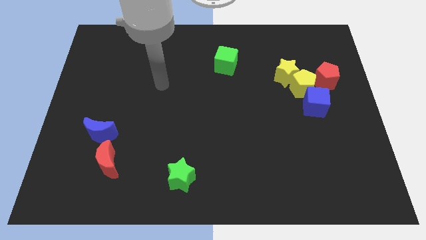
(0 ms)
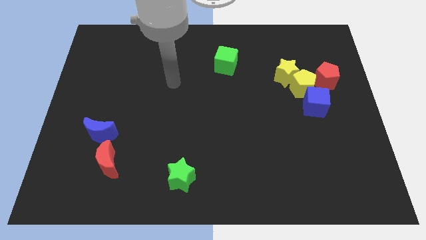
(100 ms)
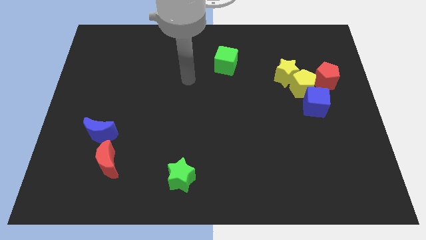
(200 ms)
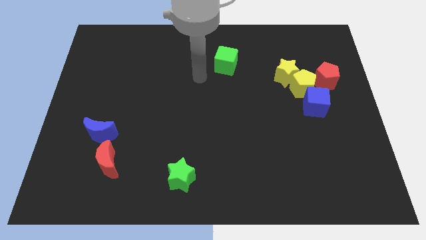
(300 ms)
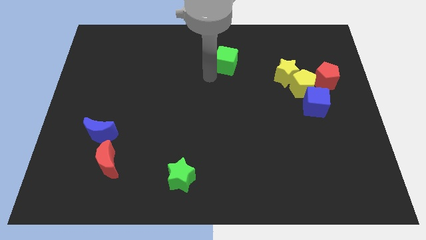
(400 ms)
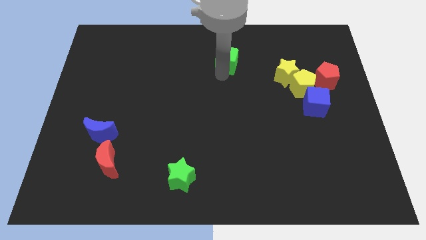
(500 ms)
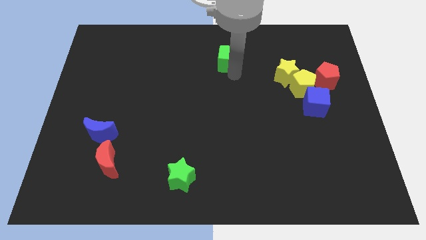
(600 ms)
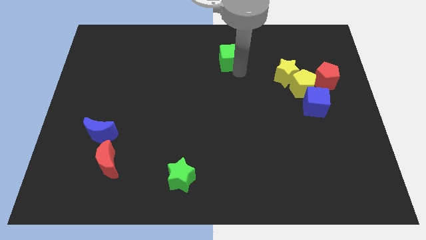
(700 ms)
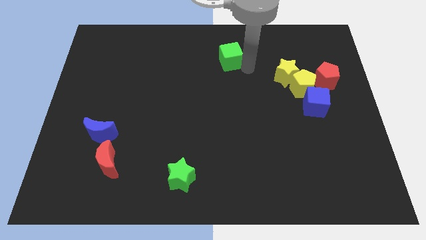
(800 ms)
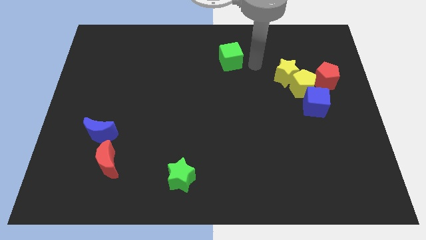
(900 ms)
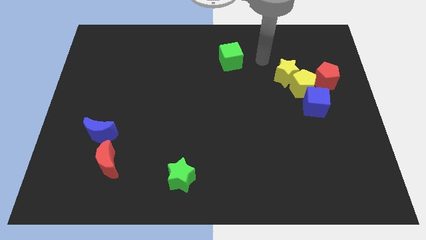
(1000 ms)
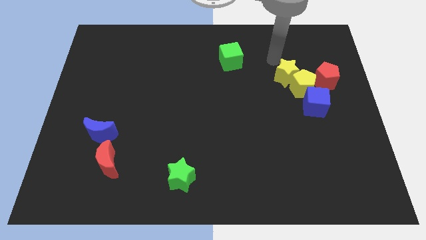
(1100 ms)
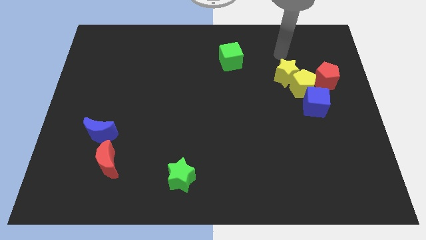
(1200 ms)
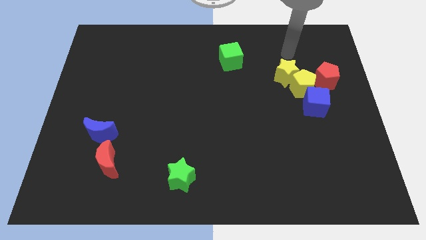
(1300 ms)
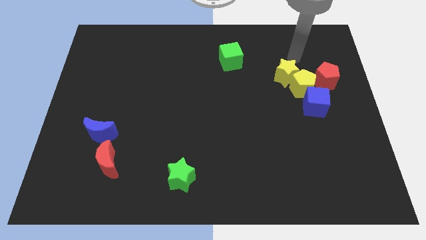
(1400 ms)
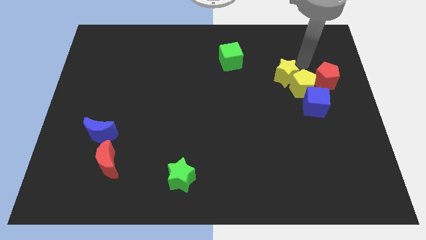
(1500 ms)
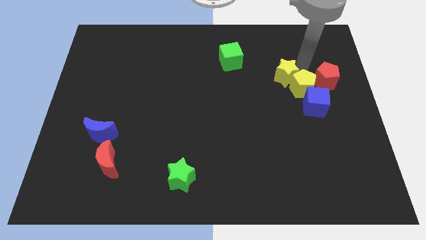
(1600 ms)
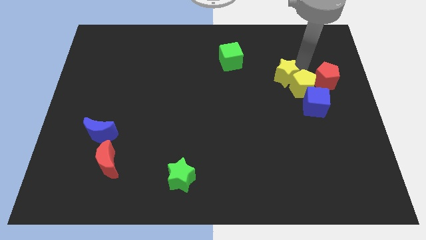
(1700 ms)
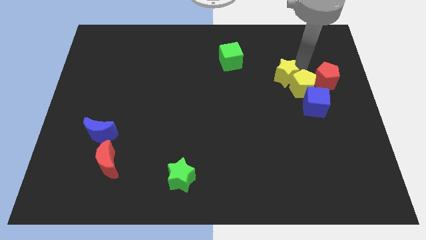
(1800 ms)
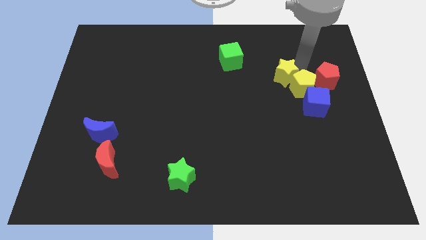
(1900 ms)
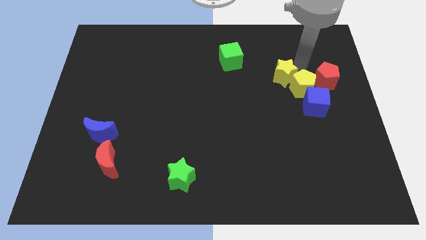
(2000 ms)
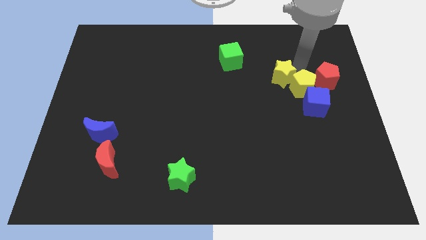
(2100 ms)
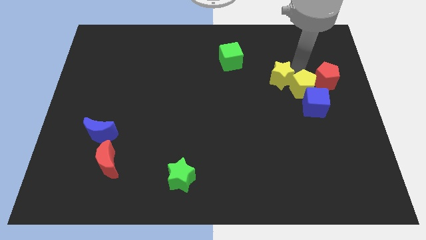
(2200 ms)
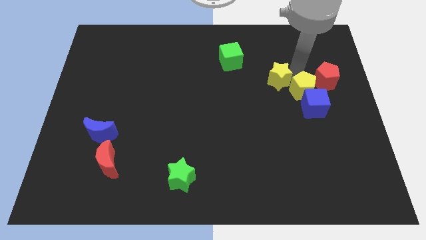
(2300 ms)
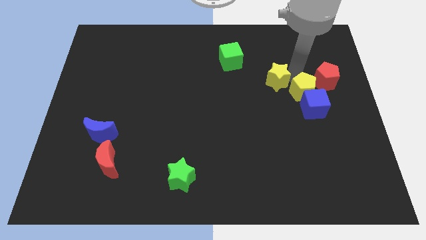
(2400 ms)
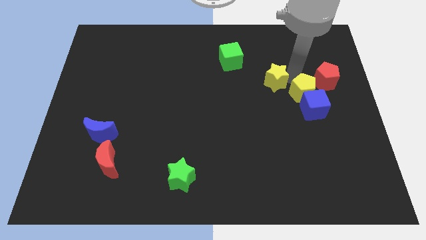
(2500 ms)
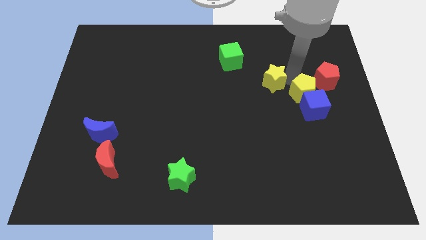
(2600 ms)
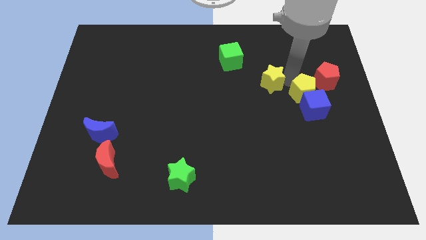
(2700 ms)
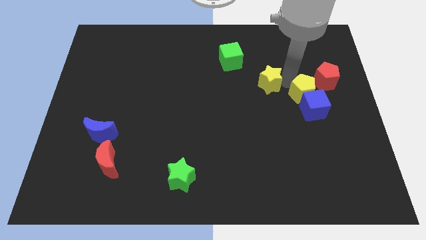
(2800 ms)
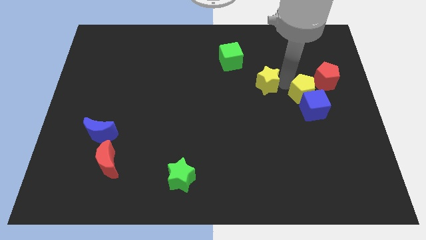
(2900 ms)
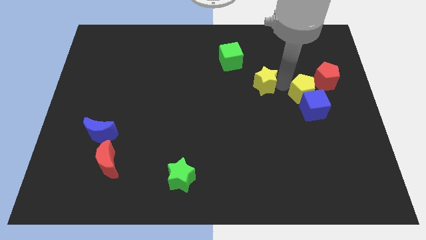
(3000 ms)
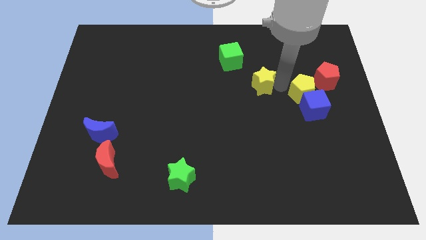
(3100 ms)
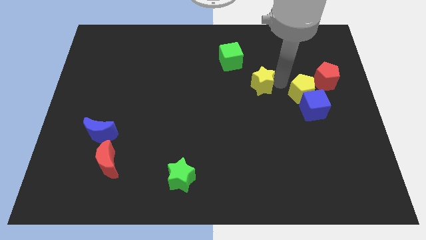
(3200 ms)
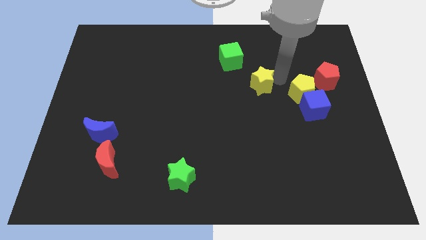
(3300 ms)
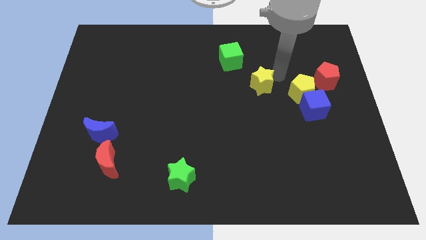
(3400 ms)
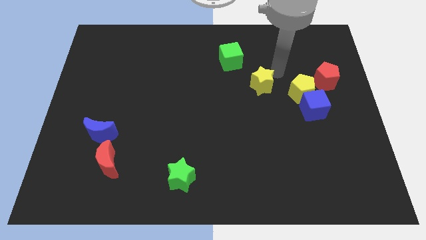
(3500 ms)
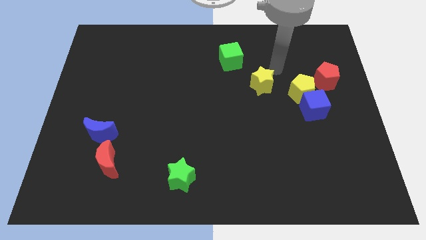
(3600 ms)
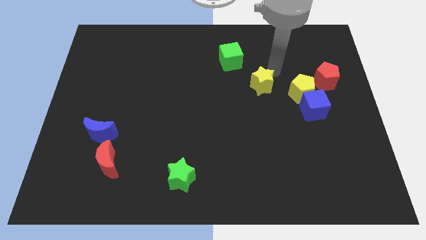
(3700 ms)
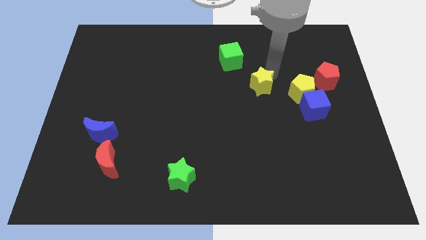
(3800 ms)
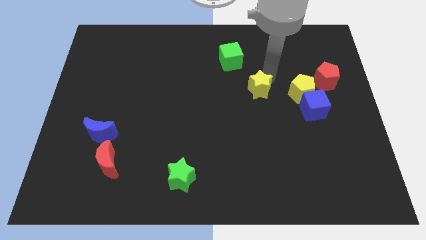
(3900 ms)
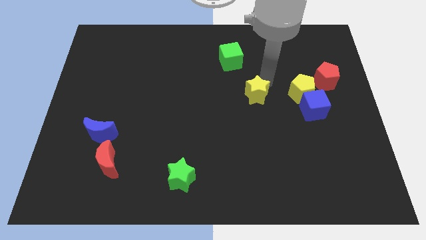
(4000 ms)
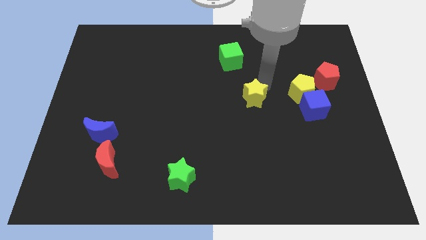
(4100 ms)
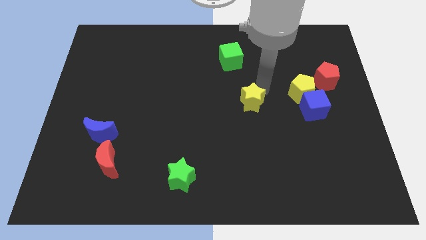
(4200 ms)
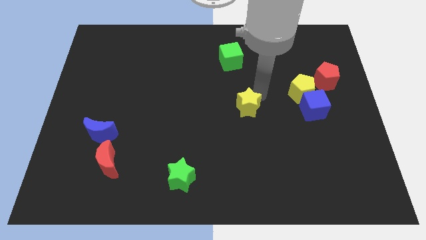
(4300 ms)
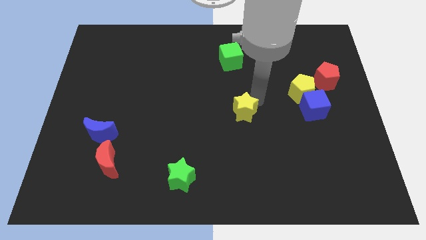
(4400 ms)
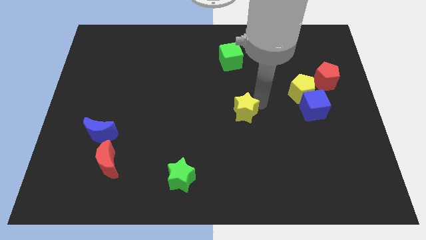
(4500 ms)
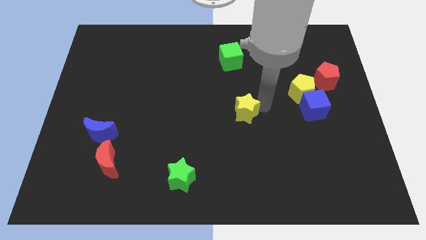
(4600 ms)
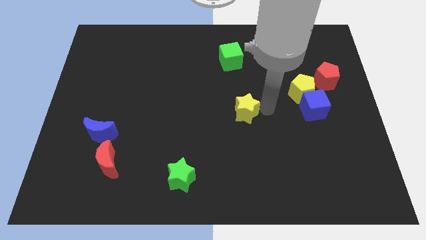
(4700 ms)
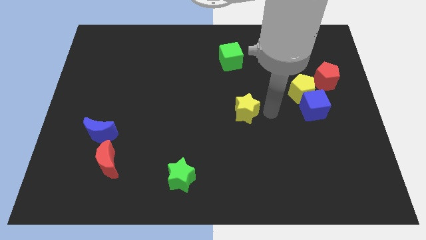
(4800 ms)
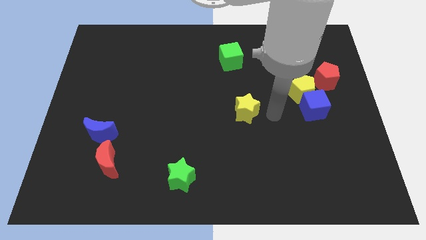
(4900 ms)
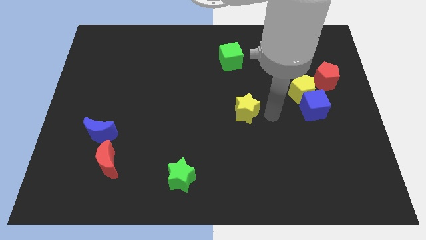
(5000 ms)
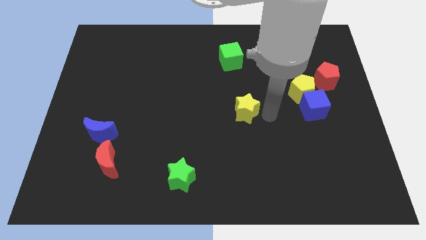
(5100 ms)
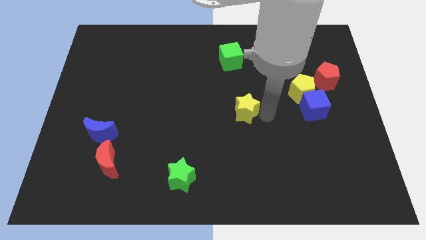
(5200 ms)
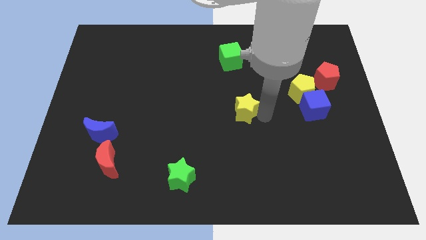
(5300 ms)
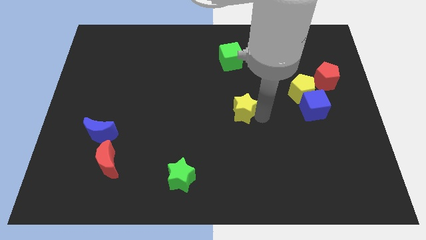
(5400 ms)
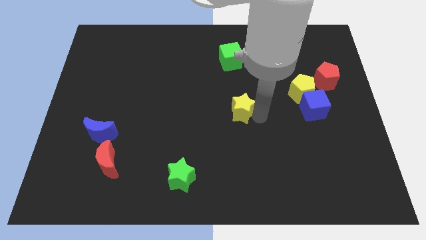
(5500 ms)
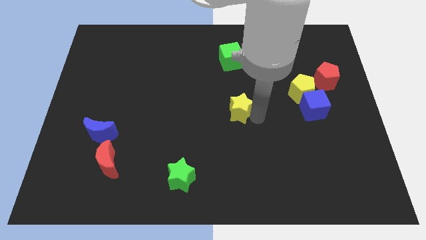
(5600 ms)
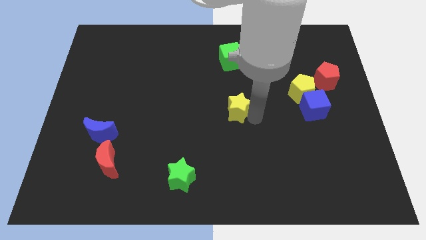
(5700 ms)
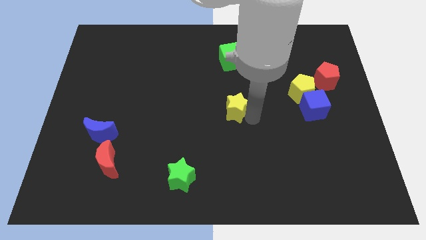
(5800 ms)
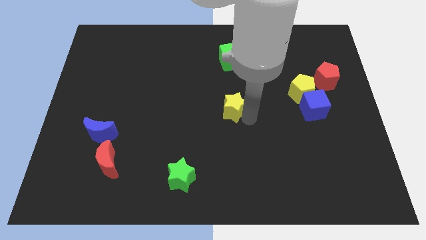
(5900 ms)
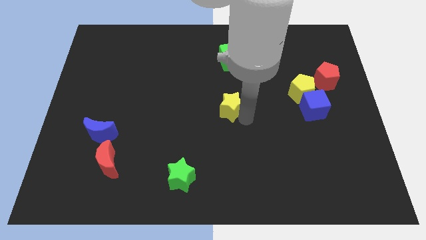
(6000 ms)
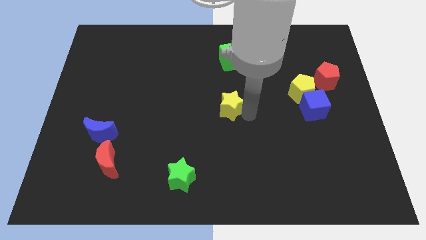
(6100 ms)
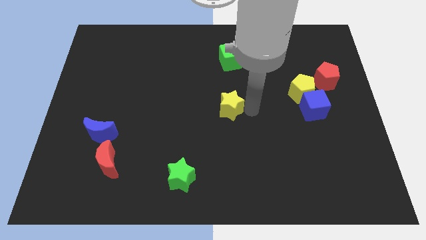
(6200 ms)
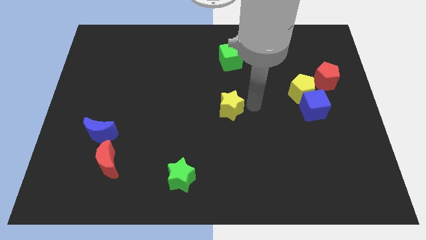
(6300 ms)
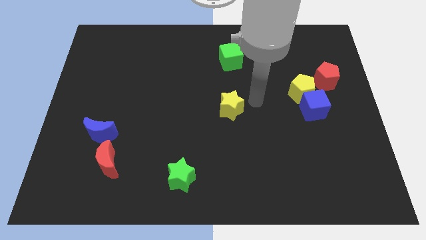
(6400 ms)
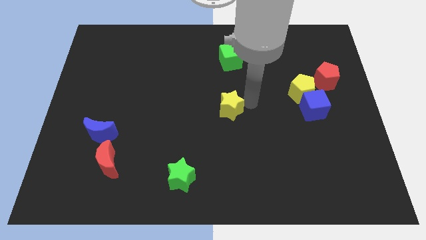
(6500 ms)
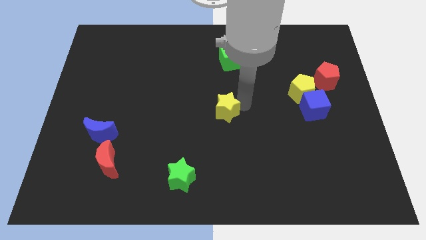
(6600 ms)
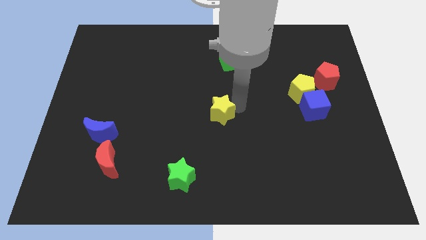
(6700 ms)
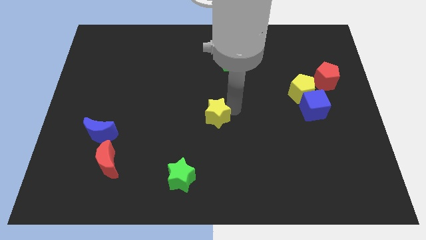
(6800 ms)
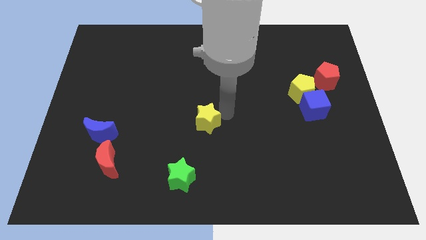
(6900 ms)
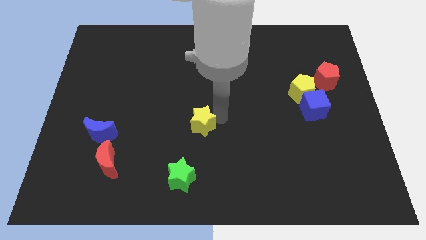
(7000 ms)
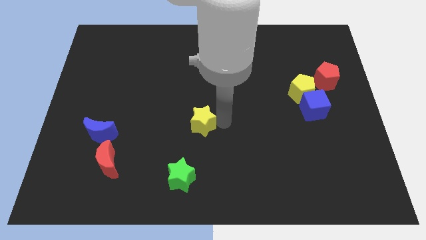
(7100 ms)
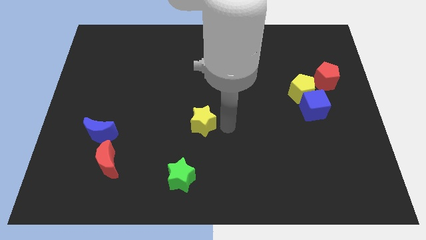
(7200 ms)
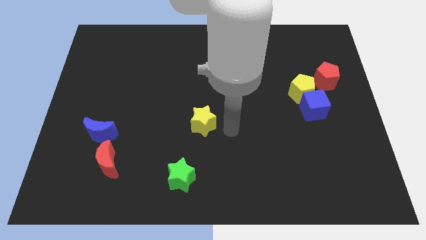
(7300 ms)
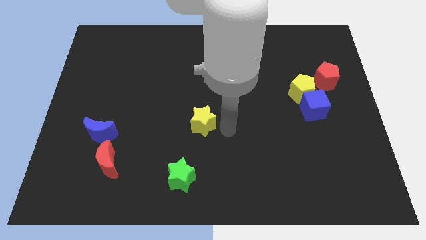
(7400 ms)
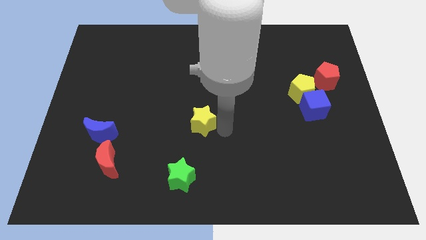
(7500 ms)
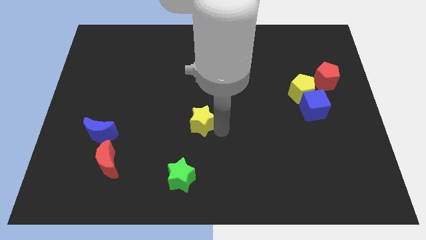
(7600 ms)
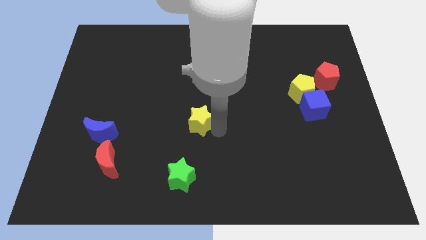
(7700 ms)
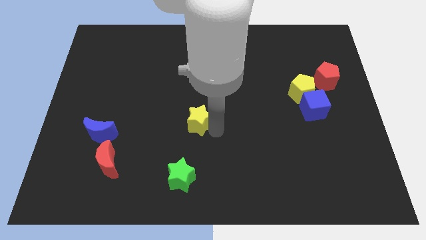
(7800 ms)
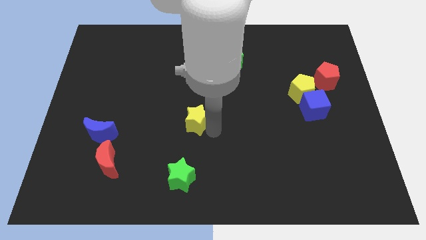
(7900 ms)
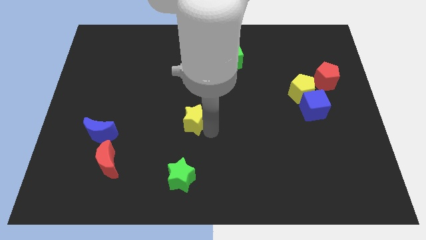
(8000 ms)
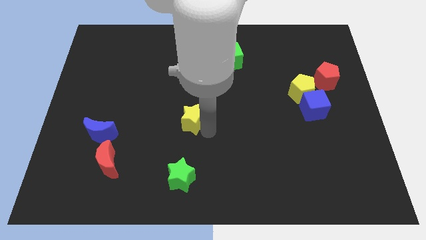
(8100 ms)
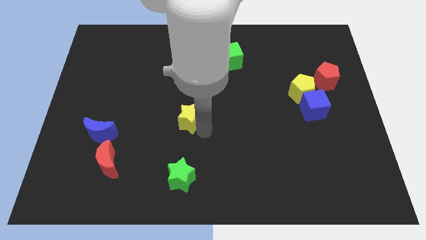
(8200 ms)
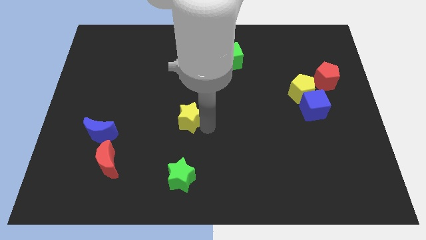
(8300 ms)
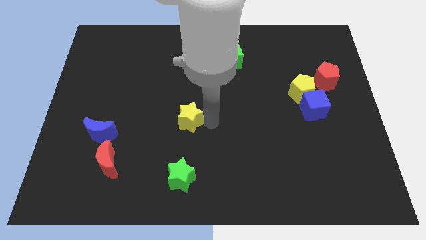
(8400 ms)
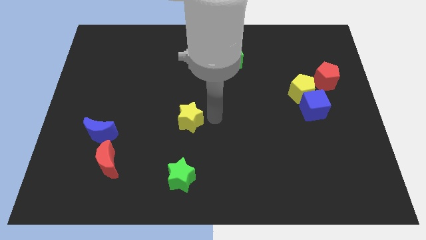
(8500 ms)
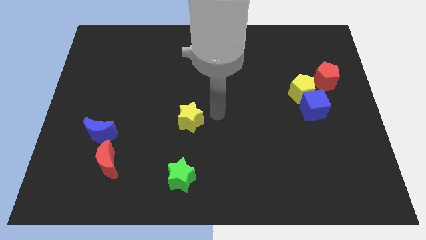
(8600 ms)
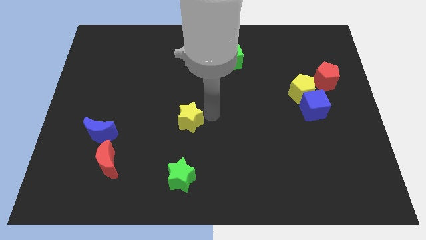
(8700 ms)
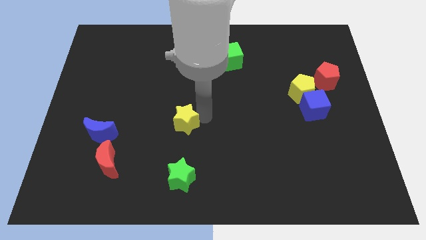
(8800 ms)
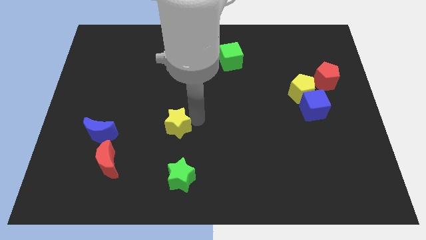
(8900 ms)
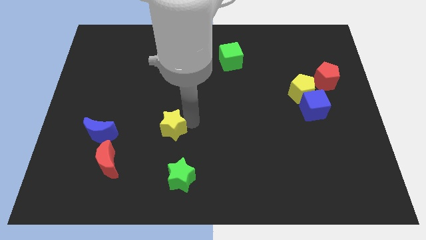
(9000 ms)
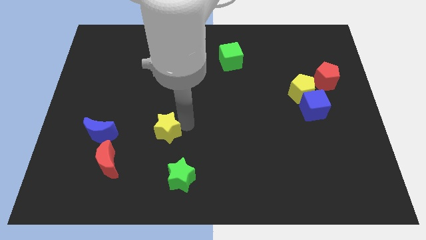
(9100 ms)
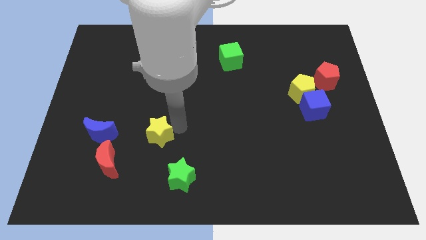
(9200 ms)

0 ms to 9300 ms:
put the yellow star diagonally up and to the right of the red moon
